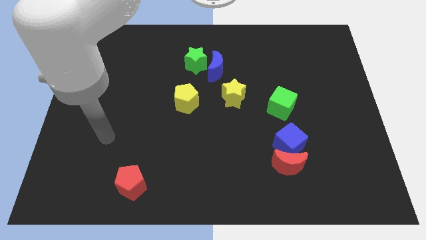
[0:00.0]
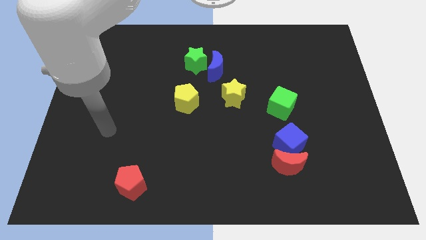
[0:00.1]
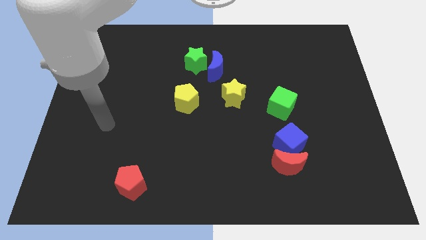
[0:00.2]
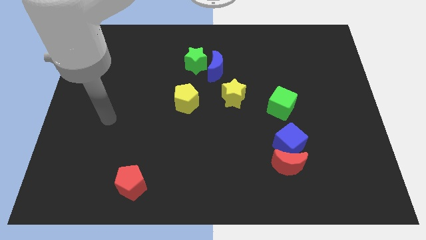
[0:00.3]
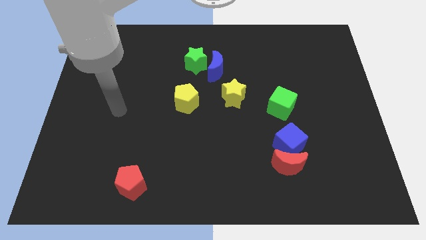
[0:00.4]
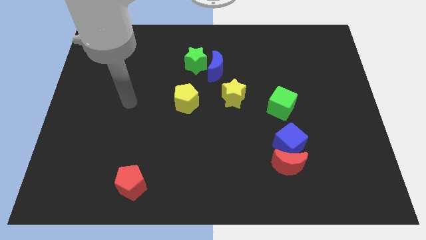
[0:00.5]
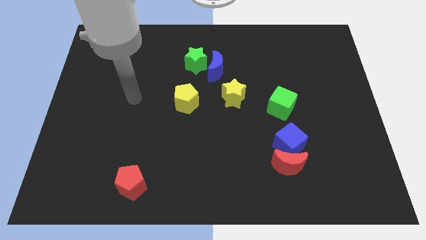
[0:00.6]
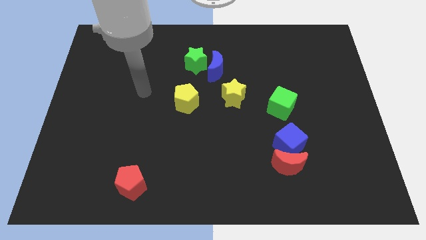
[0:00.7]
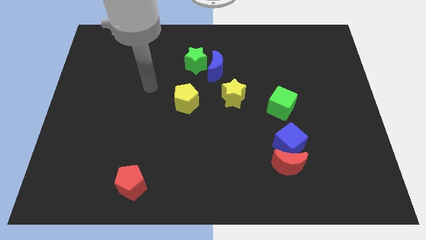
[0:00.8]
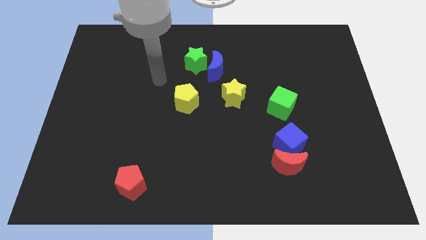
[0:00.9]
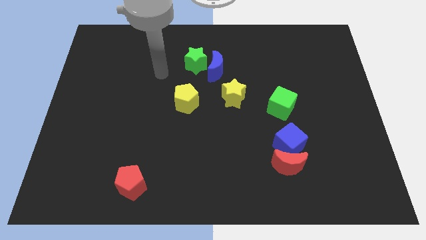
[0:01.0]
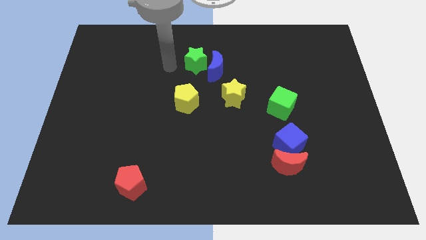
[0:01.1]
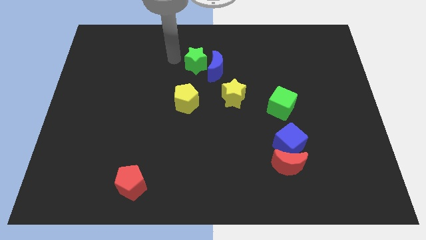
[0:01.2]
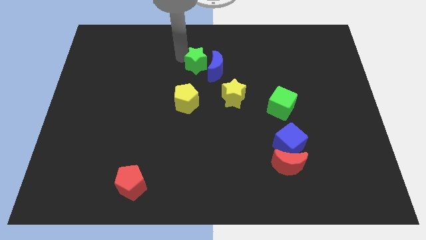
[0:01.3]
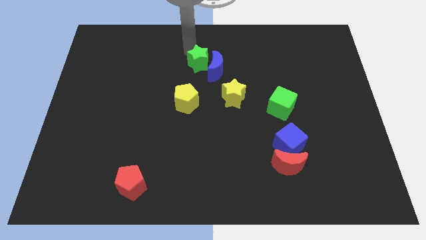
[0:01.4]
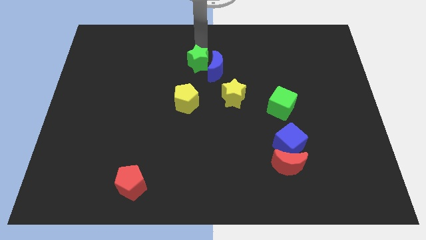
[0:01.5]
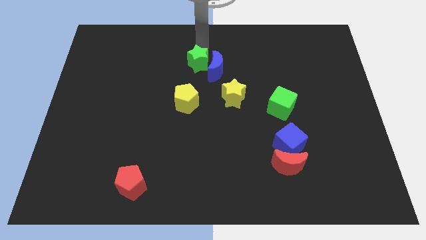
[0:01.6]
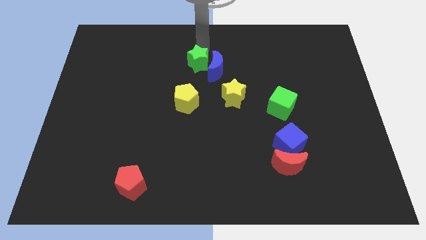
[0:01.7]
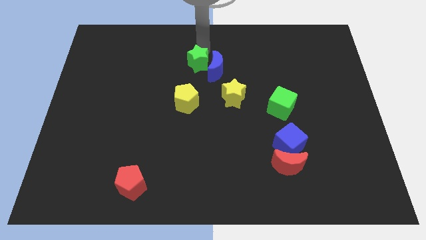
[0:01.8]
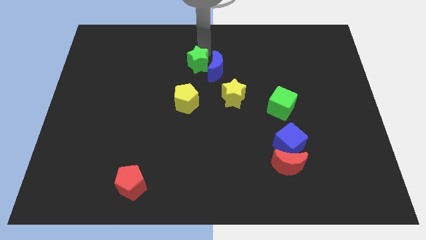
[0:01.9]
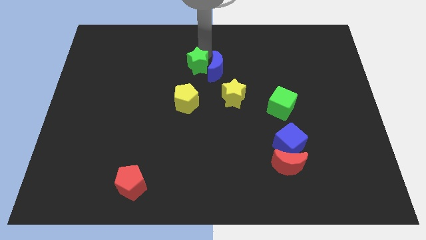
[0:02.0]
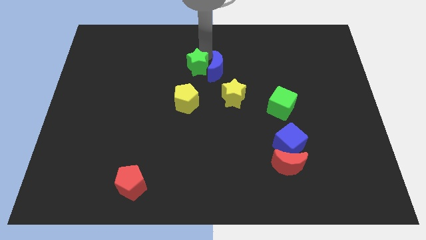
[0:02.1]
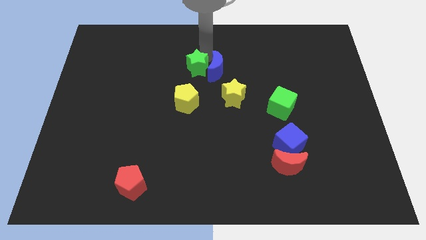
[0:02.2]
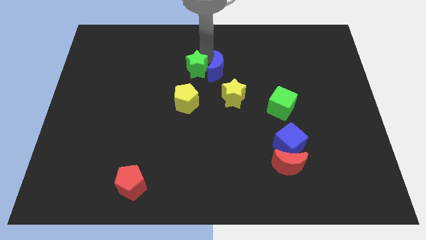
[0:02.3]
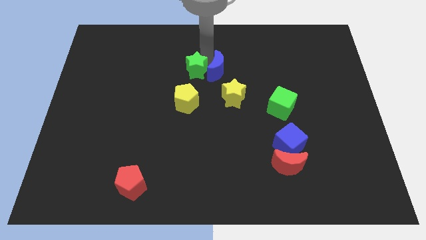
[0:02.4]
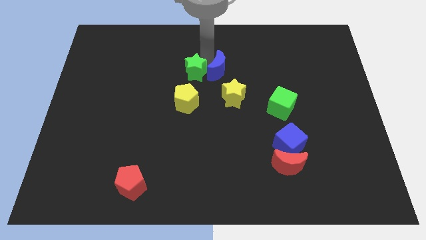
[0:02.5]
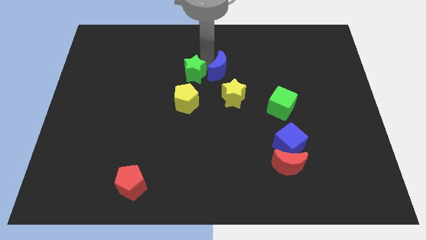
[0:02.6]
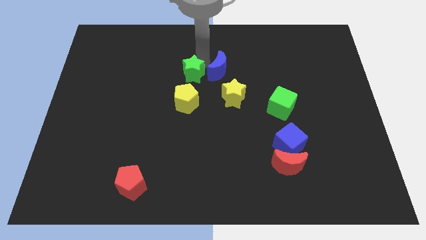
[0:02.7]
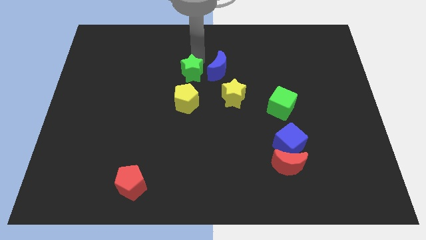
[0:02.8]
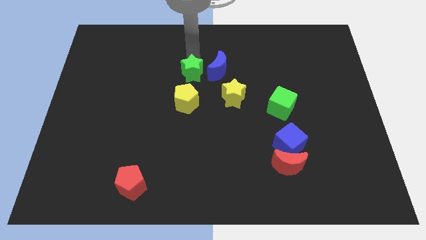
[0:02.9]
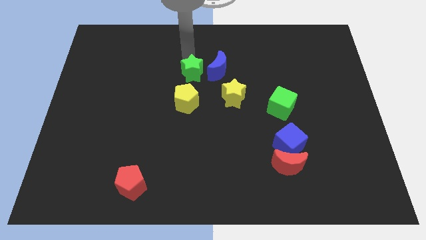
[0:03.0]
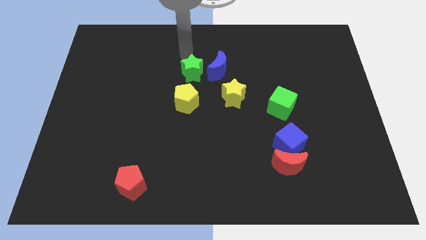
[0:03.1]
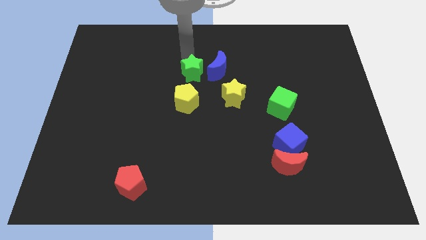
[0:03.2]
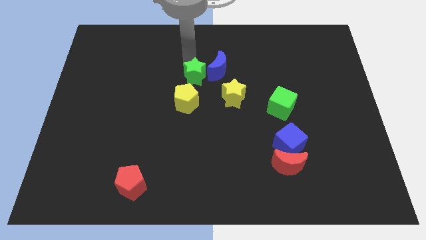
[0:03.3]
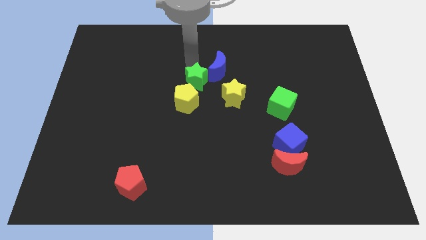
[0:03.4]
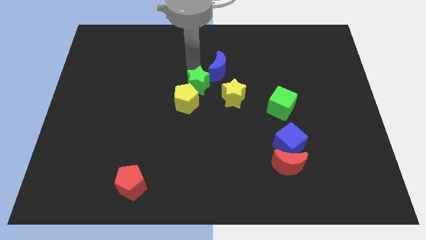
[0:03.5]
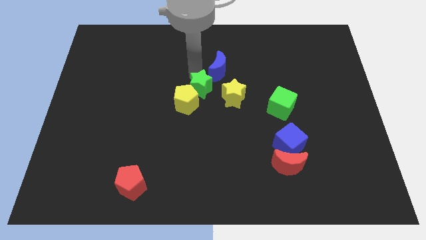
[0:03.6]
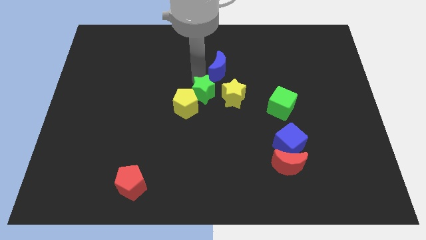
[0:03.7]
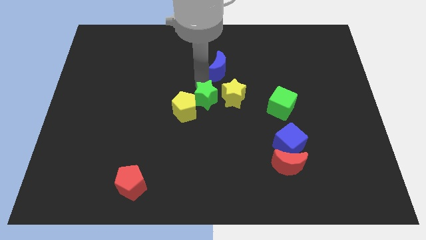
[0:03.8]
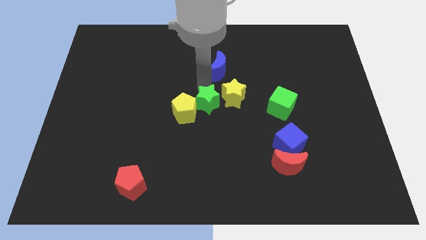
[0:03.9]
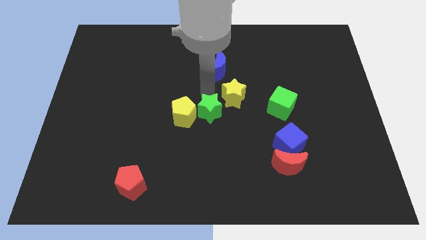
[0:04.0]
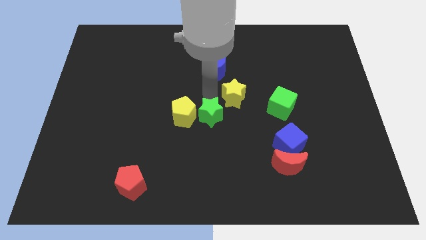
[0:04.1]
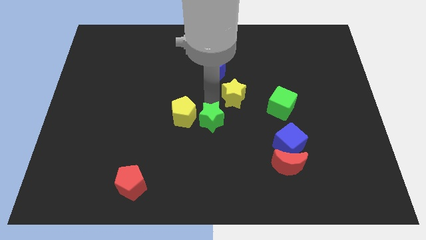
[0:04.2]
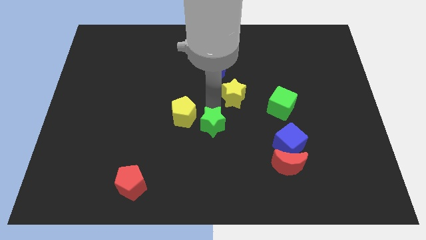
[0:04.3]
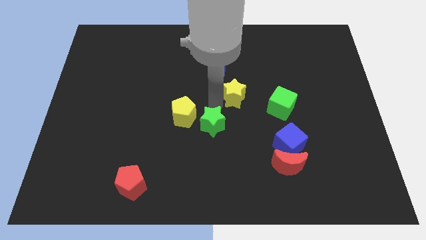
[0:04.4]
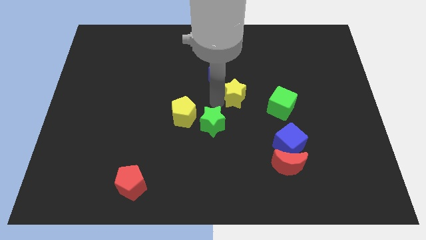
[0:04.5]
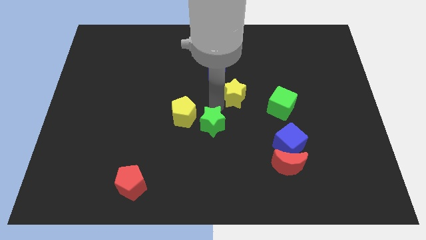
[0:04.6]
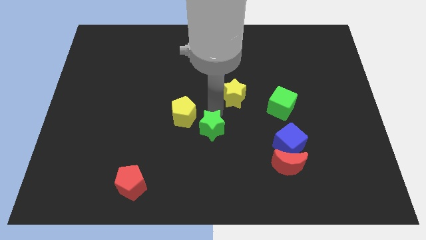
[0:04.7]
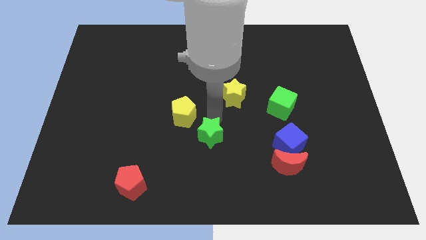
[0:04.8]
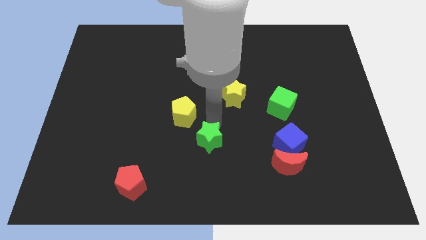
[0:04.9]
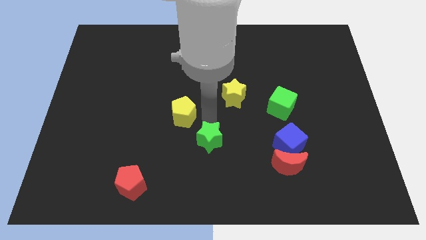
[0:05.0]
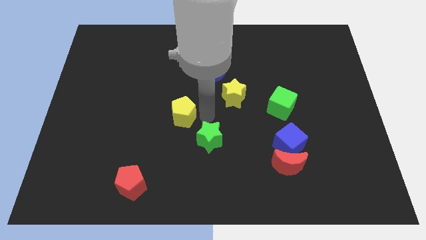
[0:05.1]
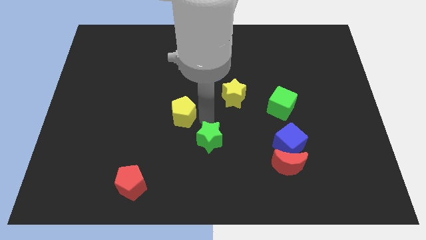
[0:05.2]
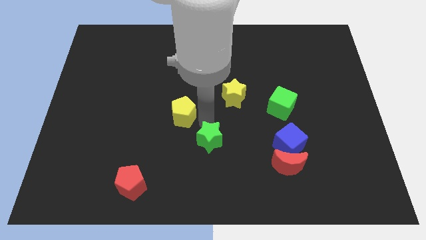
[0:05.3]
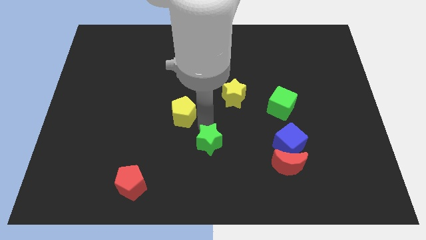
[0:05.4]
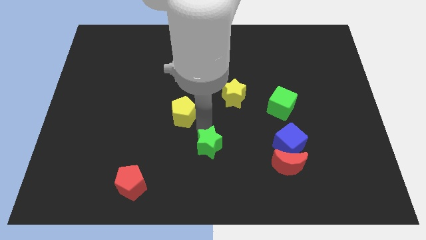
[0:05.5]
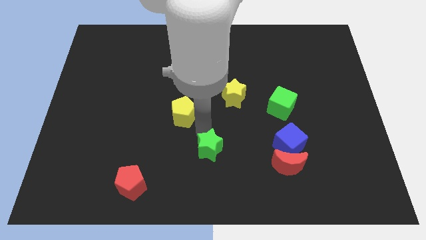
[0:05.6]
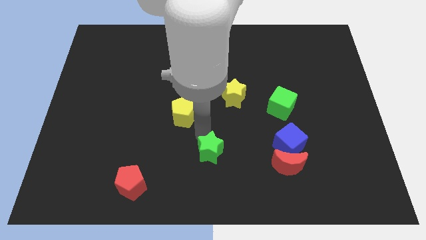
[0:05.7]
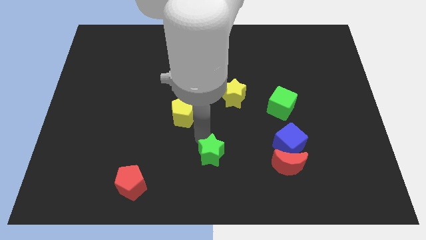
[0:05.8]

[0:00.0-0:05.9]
push the green star to the bottom side
